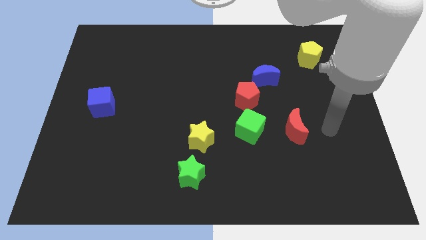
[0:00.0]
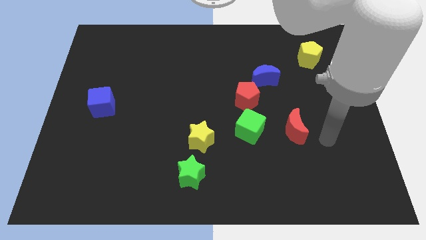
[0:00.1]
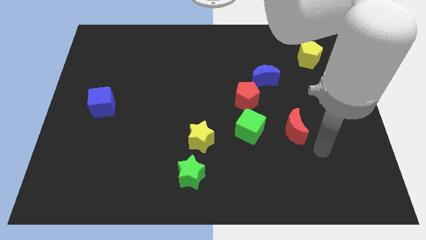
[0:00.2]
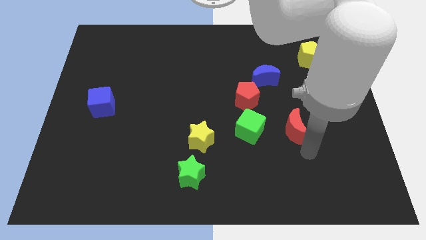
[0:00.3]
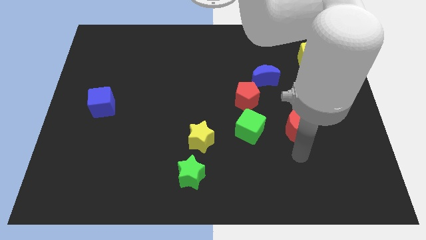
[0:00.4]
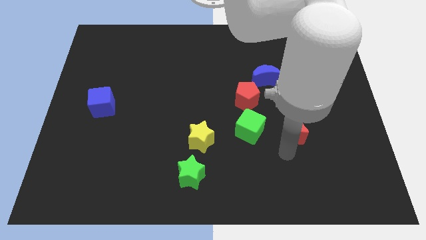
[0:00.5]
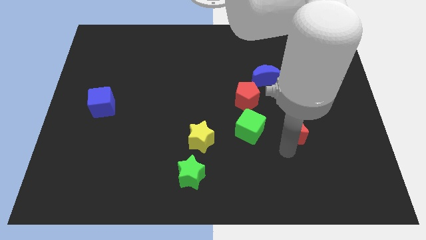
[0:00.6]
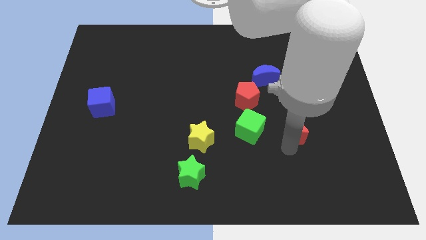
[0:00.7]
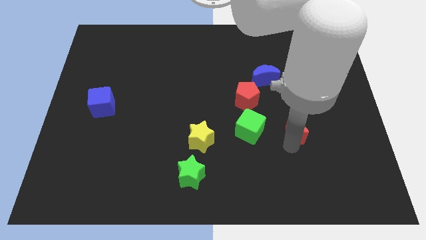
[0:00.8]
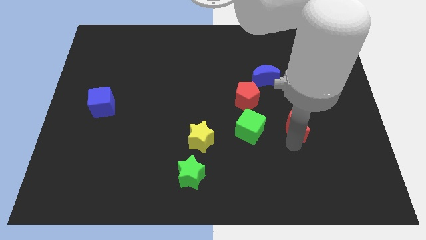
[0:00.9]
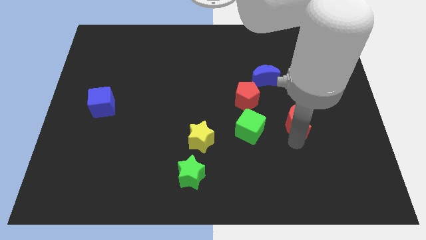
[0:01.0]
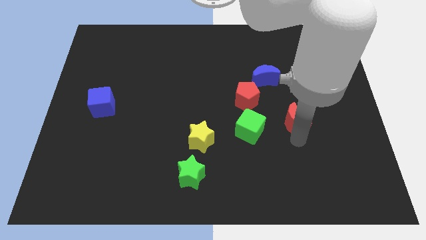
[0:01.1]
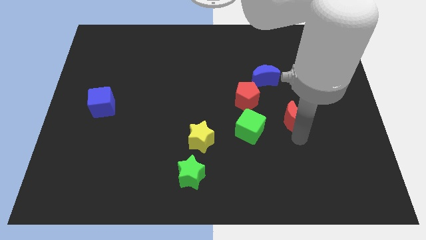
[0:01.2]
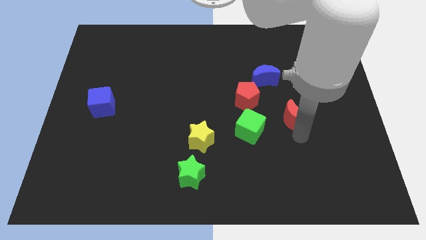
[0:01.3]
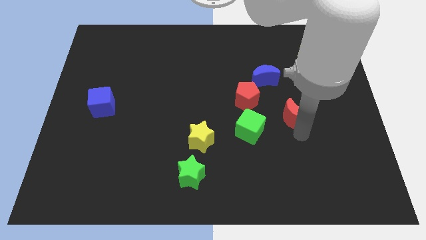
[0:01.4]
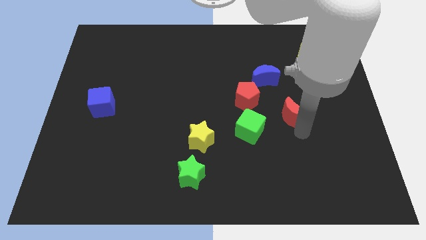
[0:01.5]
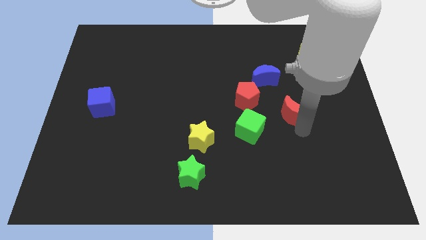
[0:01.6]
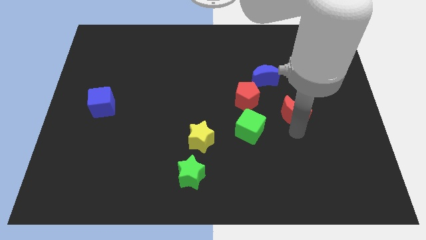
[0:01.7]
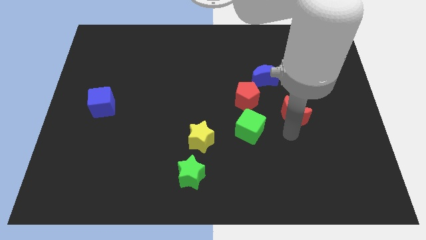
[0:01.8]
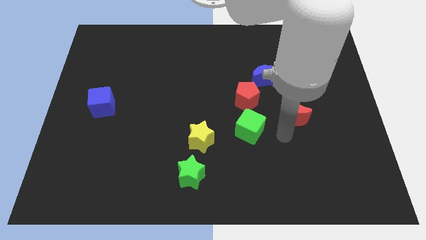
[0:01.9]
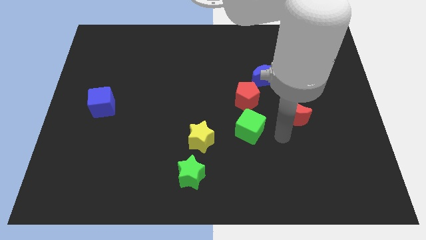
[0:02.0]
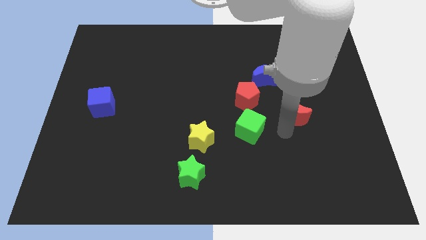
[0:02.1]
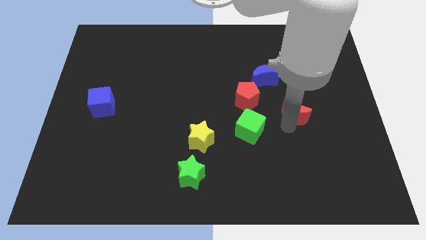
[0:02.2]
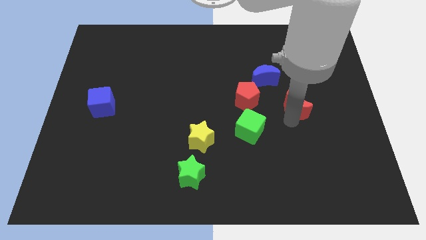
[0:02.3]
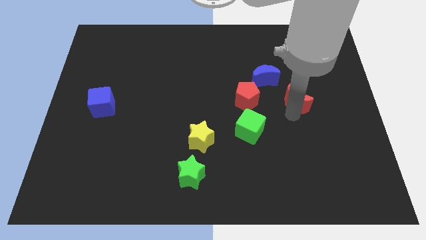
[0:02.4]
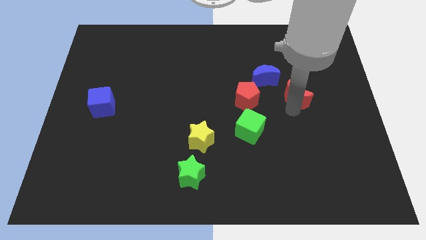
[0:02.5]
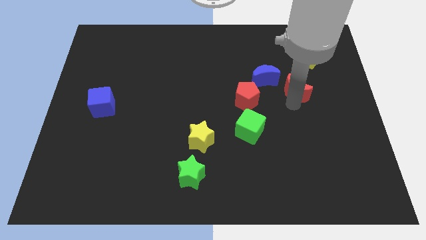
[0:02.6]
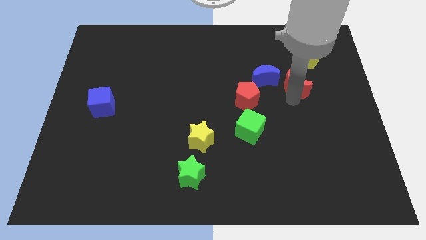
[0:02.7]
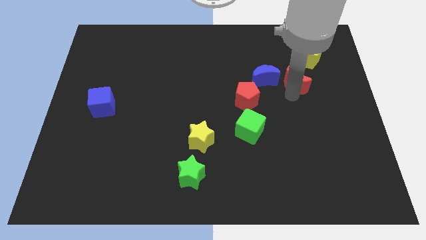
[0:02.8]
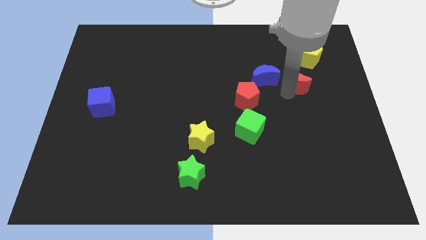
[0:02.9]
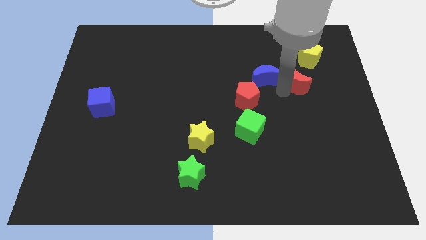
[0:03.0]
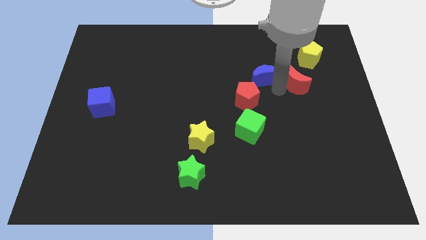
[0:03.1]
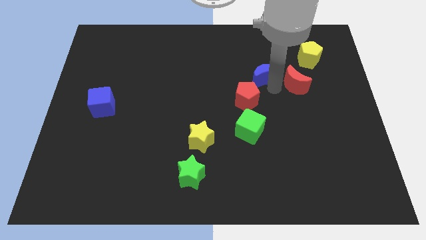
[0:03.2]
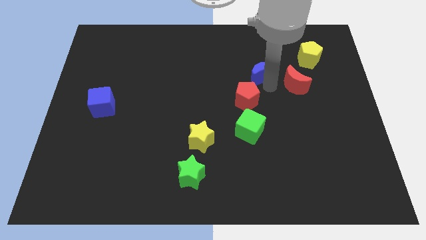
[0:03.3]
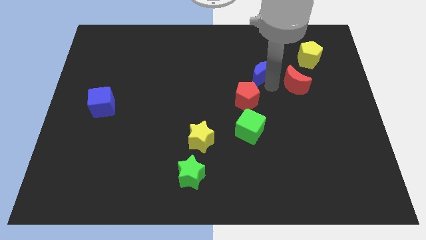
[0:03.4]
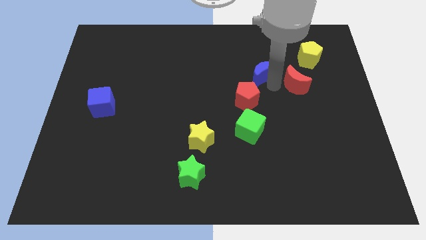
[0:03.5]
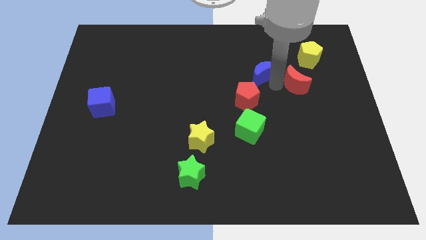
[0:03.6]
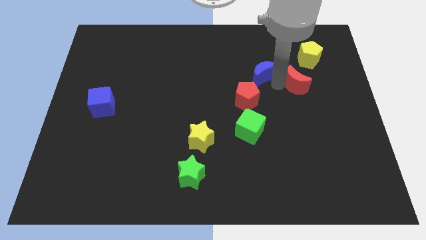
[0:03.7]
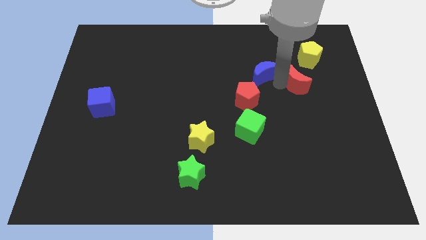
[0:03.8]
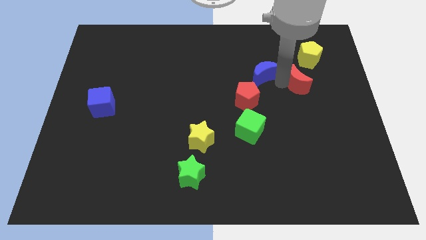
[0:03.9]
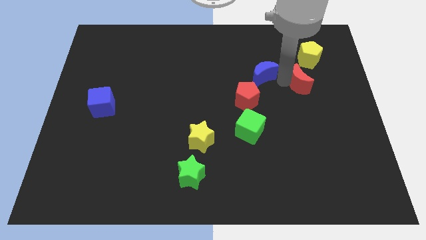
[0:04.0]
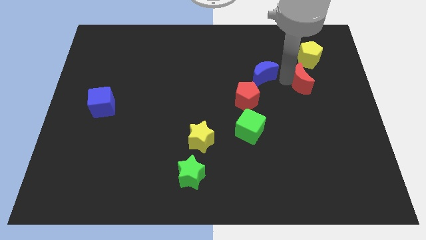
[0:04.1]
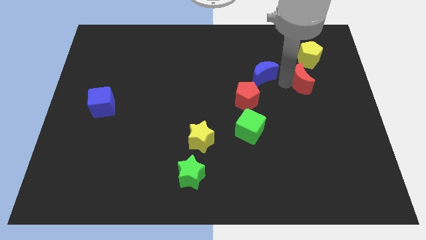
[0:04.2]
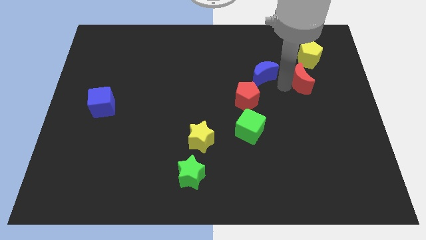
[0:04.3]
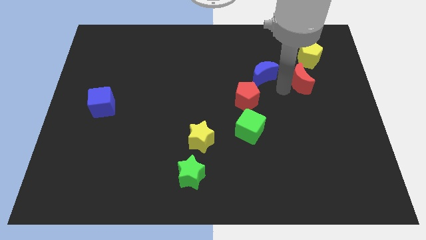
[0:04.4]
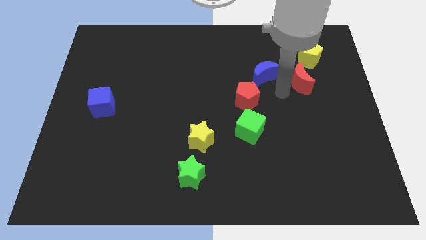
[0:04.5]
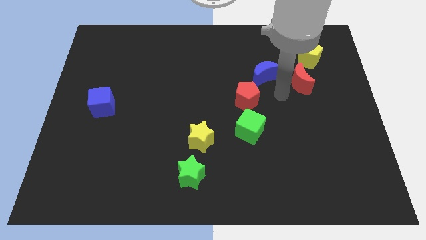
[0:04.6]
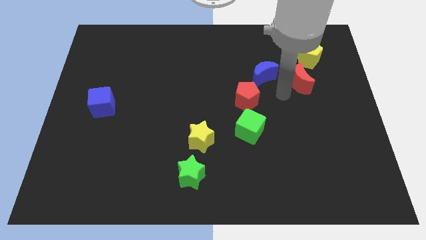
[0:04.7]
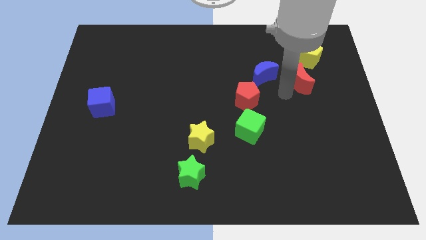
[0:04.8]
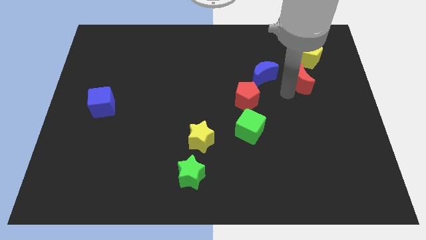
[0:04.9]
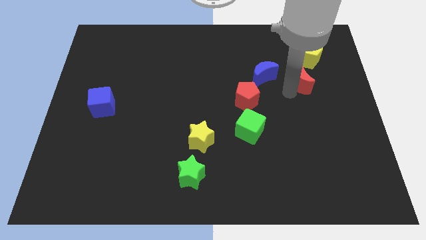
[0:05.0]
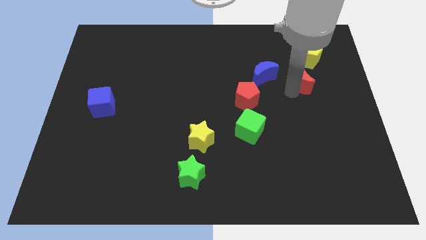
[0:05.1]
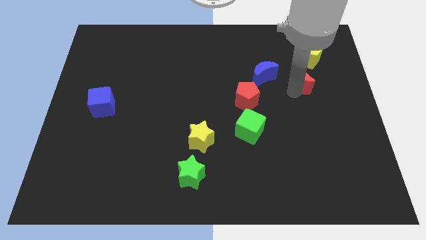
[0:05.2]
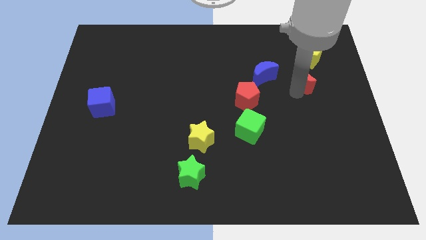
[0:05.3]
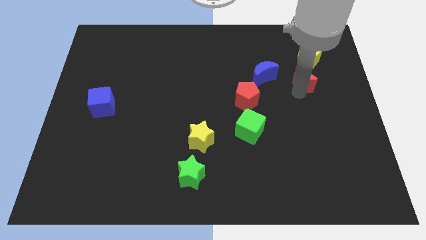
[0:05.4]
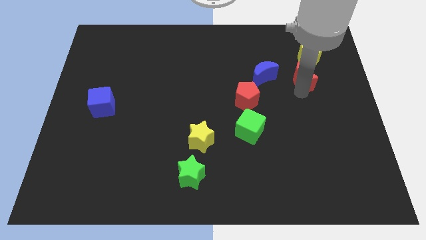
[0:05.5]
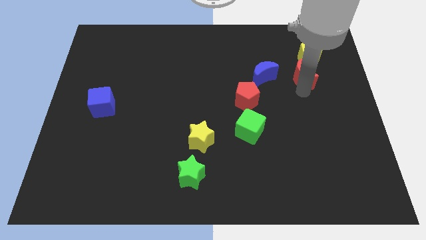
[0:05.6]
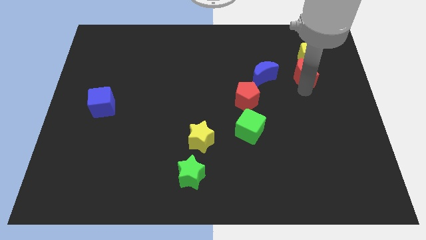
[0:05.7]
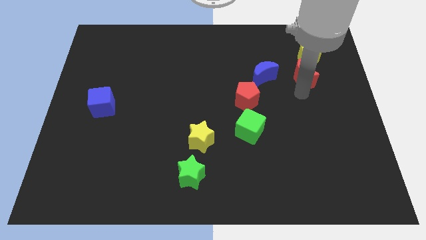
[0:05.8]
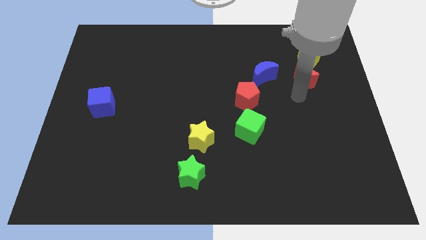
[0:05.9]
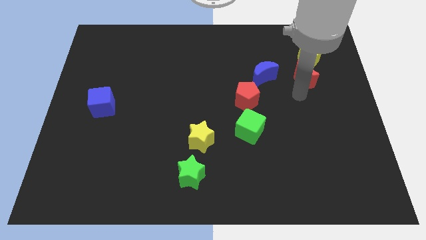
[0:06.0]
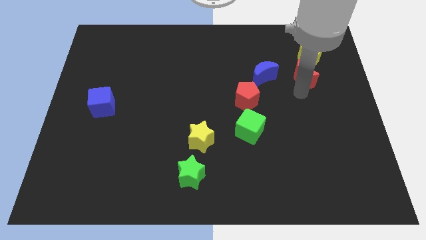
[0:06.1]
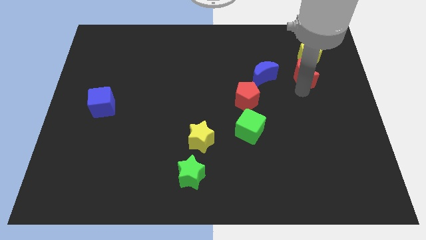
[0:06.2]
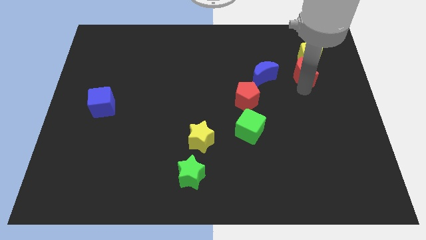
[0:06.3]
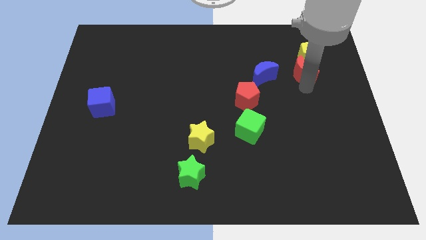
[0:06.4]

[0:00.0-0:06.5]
put the red moon to the yellow pentagon
